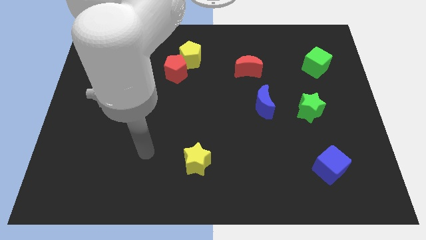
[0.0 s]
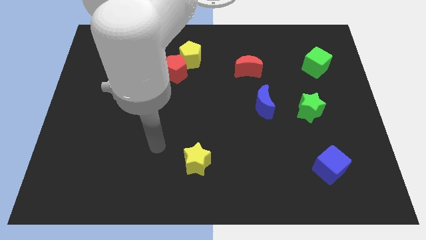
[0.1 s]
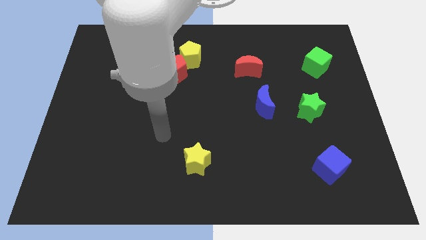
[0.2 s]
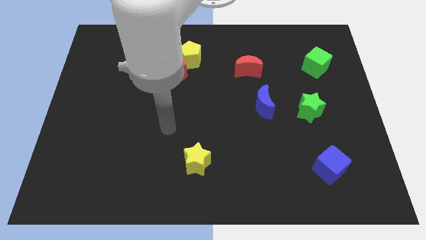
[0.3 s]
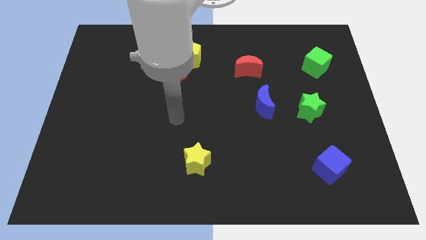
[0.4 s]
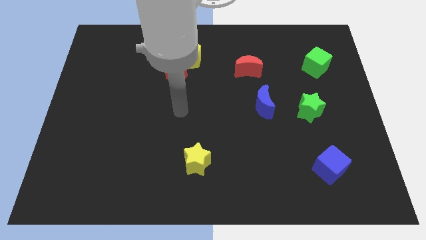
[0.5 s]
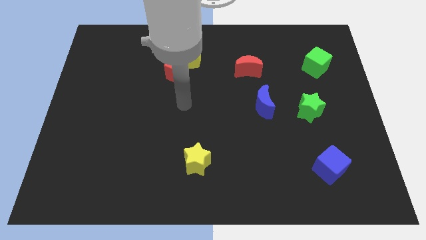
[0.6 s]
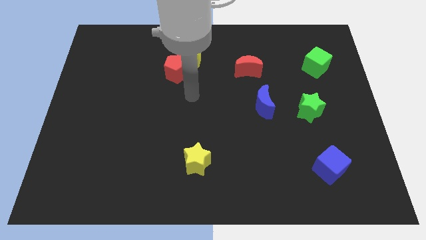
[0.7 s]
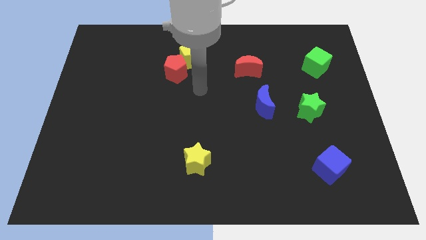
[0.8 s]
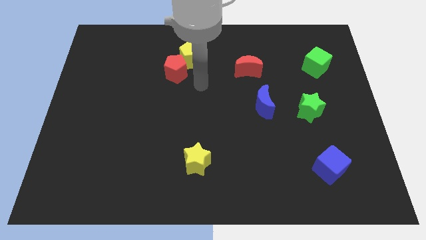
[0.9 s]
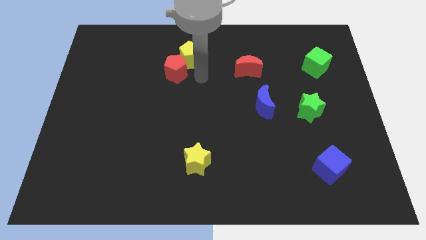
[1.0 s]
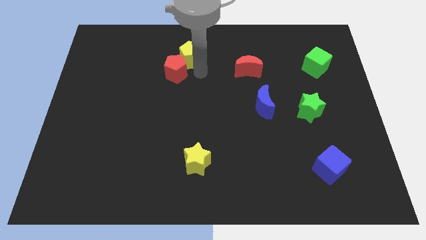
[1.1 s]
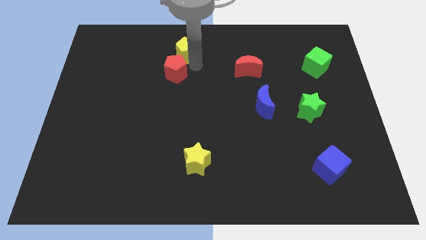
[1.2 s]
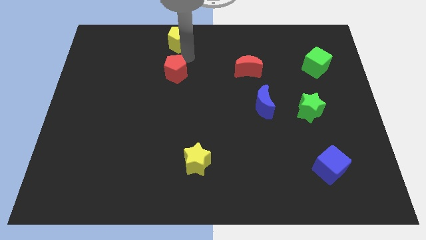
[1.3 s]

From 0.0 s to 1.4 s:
separate the red pentagon from the yellow pentagon

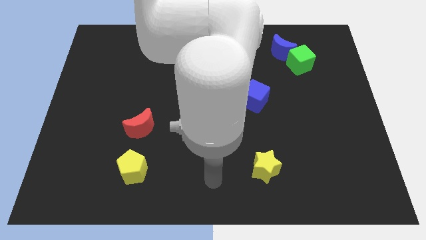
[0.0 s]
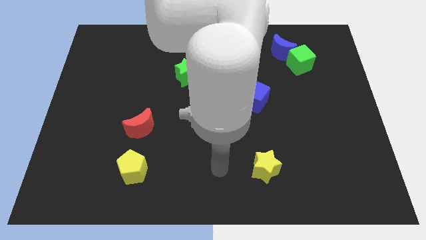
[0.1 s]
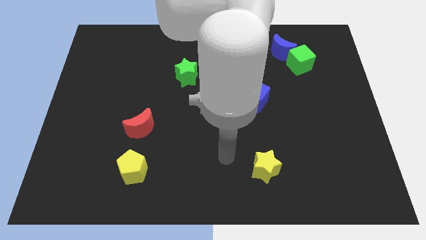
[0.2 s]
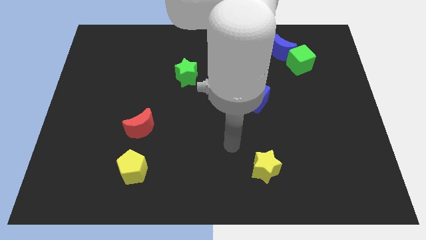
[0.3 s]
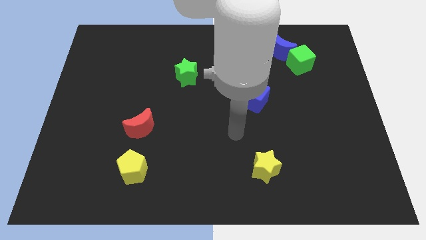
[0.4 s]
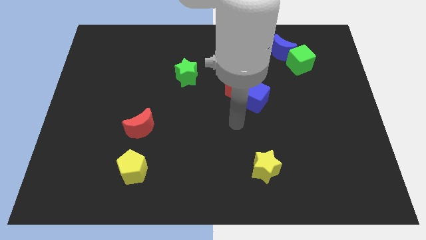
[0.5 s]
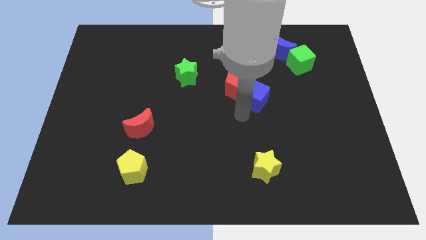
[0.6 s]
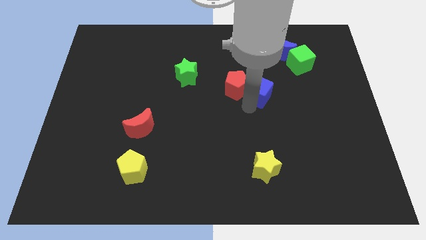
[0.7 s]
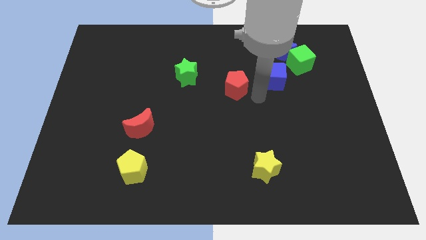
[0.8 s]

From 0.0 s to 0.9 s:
pull the red pentagon apart from the blue cube

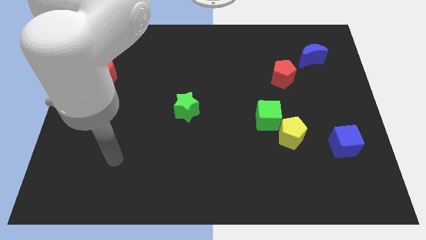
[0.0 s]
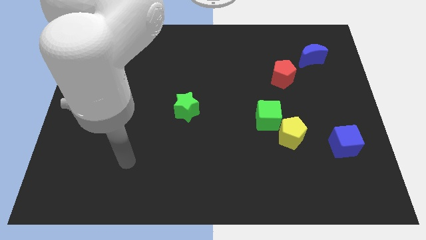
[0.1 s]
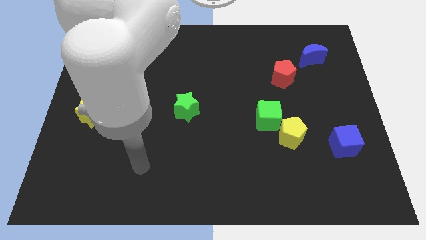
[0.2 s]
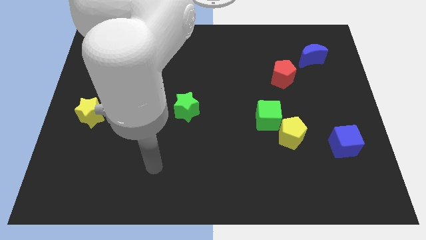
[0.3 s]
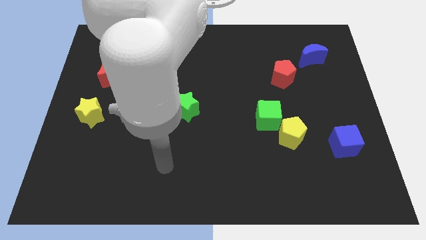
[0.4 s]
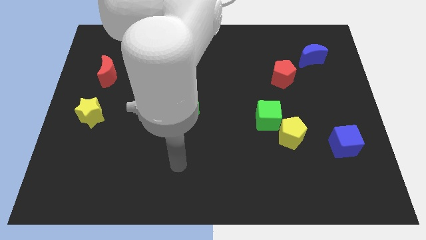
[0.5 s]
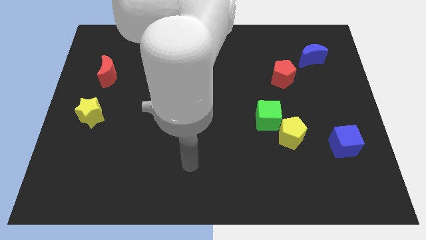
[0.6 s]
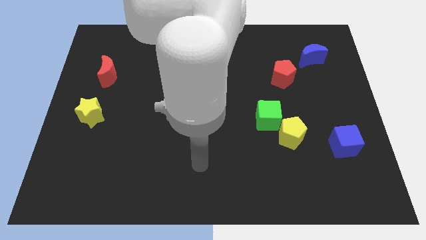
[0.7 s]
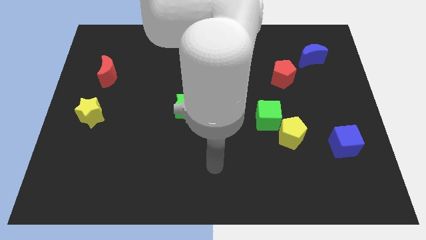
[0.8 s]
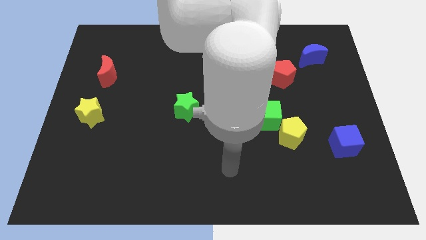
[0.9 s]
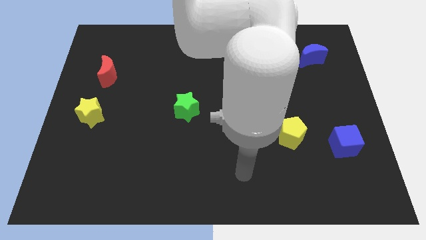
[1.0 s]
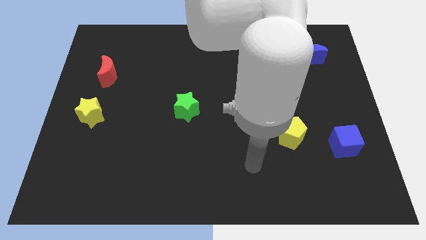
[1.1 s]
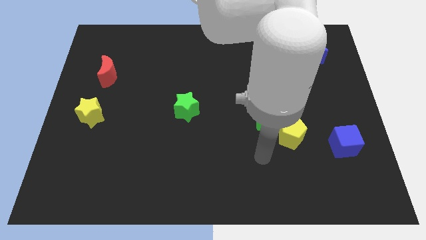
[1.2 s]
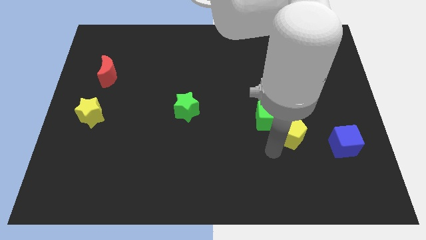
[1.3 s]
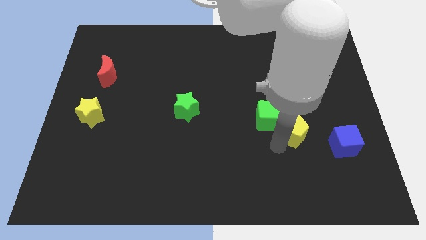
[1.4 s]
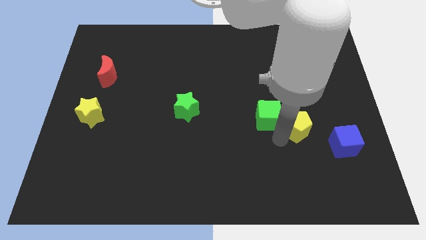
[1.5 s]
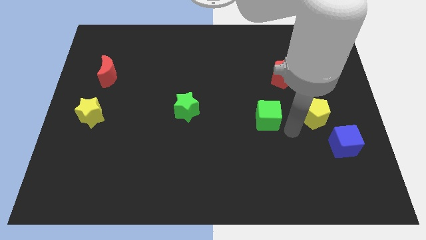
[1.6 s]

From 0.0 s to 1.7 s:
move the green cube away from the yellow pentagon

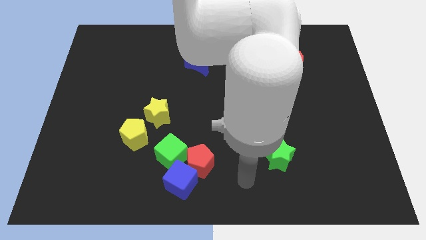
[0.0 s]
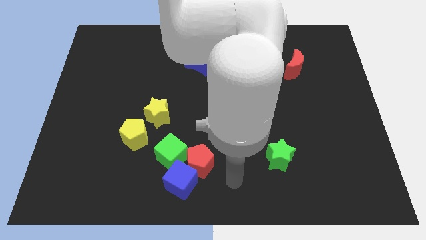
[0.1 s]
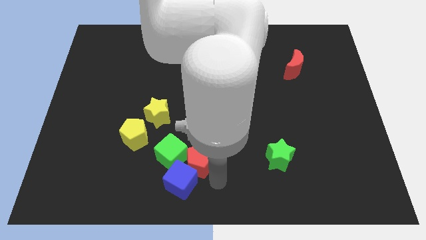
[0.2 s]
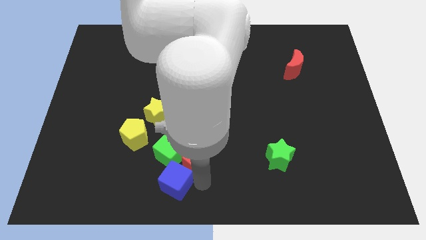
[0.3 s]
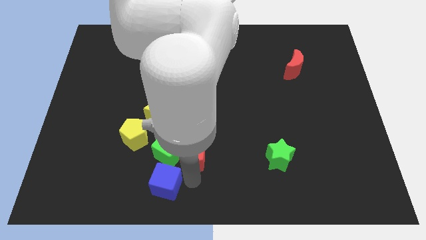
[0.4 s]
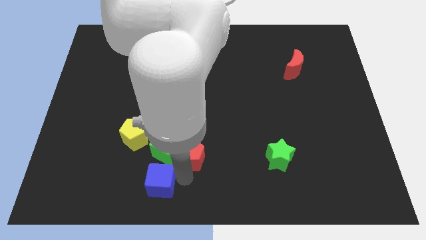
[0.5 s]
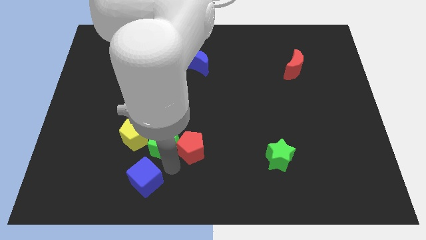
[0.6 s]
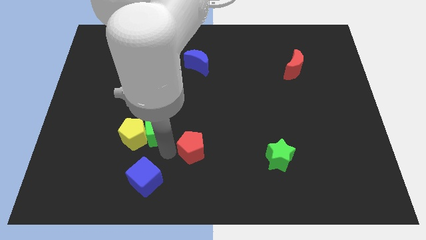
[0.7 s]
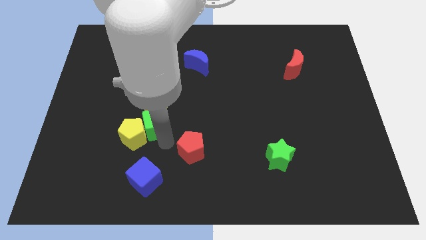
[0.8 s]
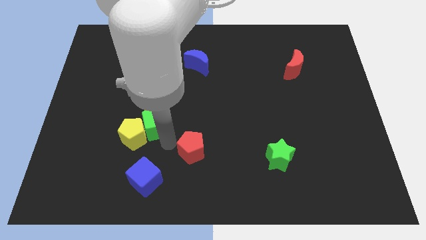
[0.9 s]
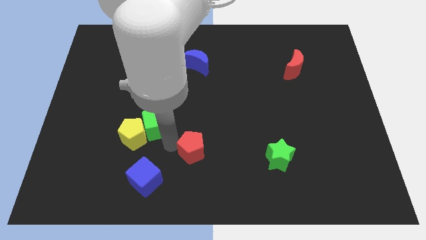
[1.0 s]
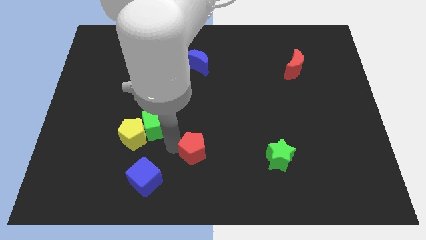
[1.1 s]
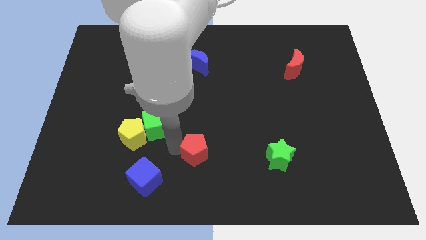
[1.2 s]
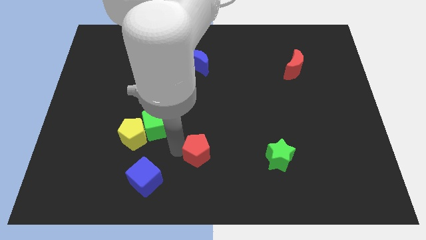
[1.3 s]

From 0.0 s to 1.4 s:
separate the red pentagon from the blue cube and green cube

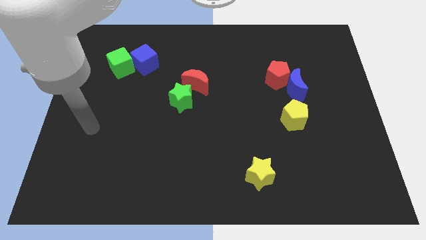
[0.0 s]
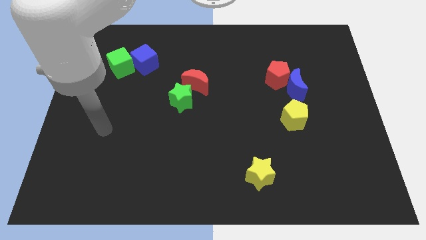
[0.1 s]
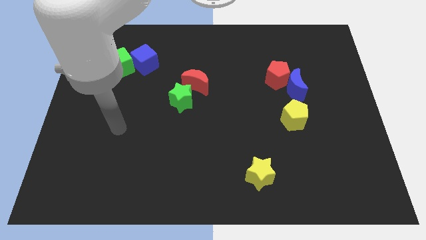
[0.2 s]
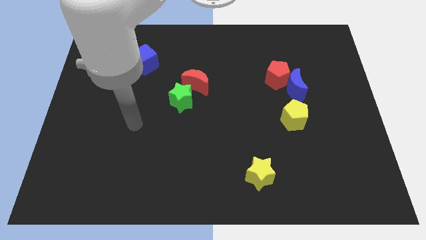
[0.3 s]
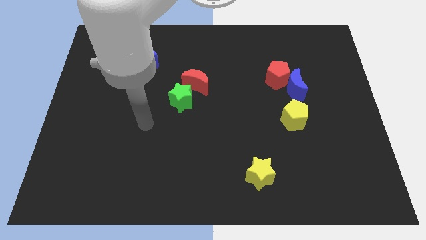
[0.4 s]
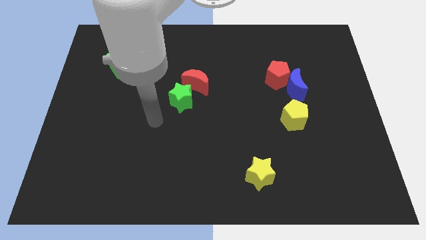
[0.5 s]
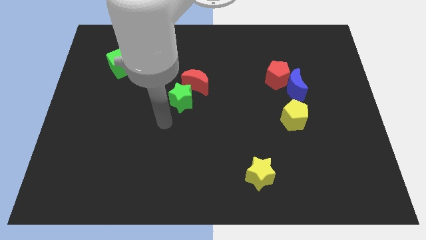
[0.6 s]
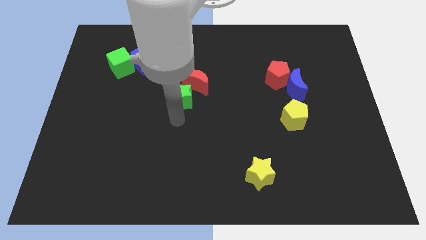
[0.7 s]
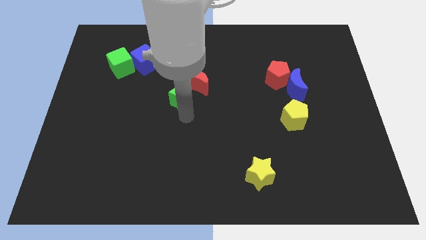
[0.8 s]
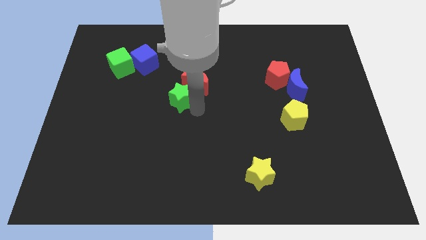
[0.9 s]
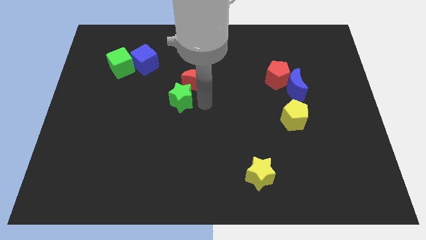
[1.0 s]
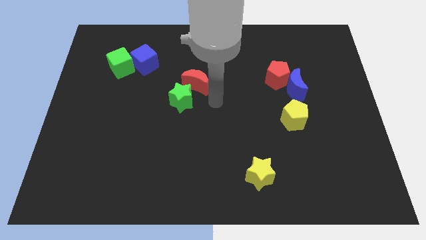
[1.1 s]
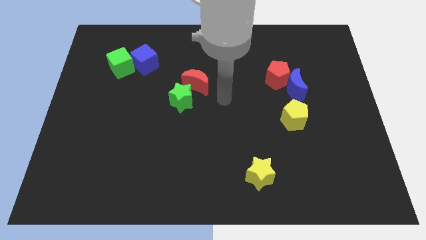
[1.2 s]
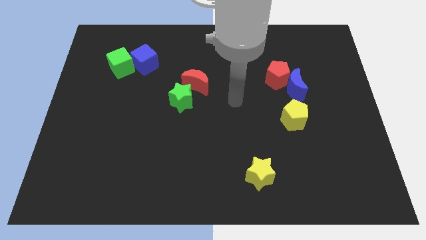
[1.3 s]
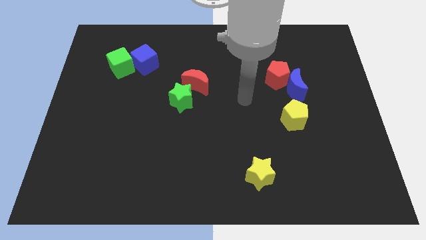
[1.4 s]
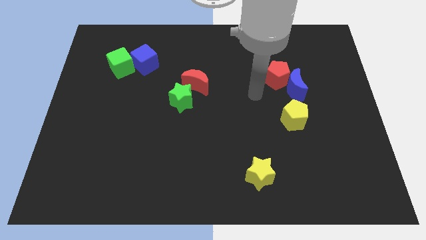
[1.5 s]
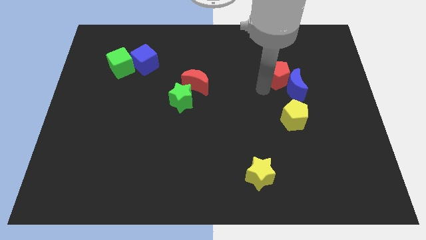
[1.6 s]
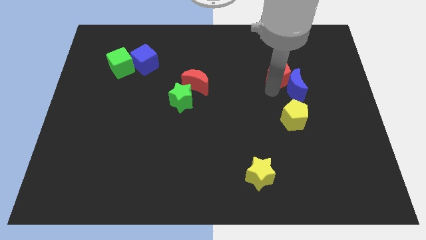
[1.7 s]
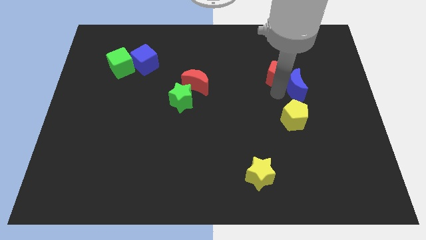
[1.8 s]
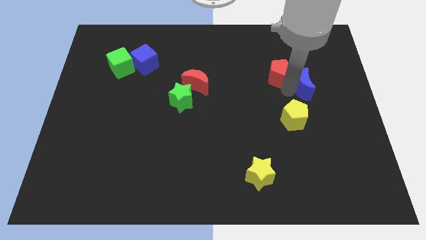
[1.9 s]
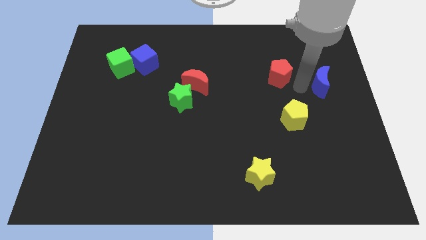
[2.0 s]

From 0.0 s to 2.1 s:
pull the red pentagon apart from the blue moon

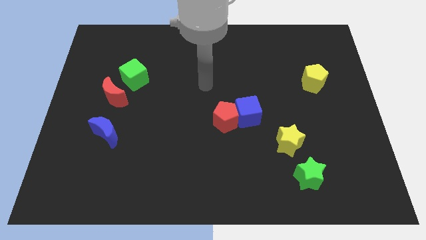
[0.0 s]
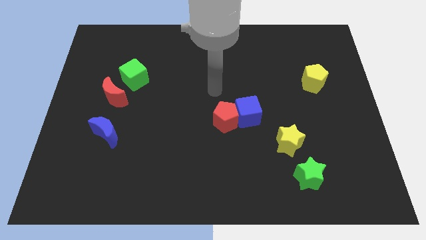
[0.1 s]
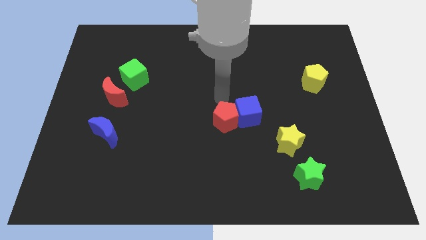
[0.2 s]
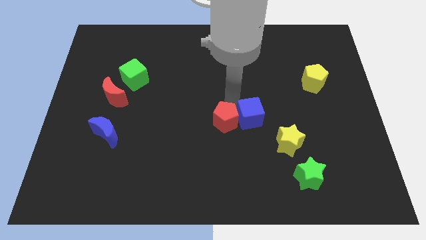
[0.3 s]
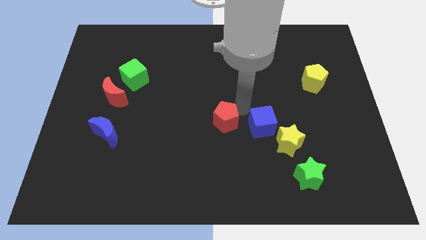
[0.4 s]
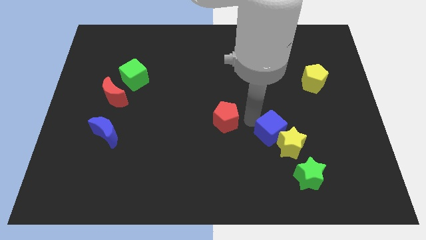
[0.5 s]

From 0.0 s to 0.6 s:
separate the red pentagon from the blue cube

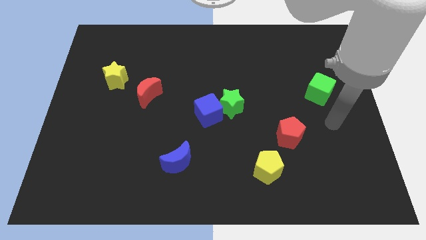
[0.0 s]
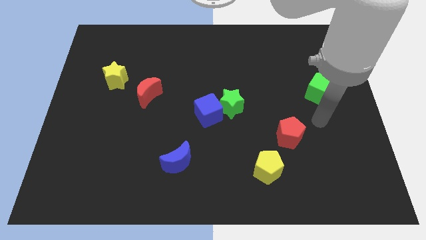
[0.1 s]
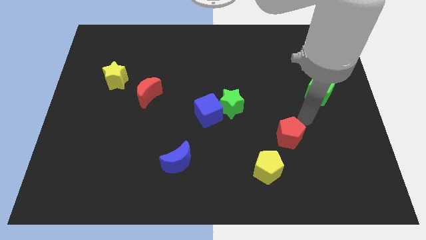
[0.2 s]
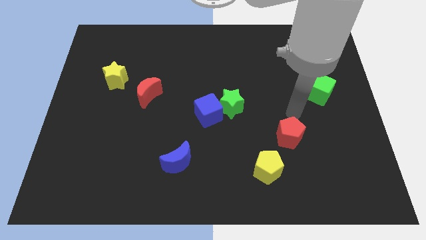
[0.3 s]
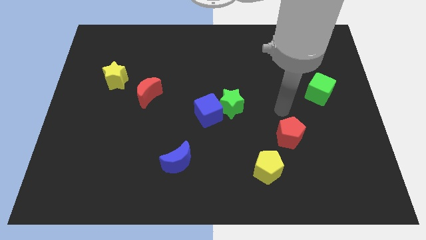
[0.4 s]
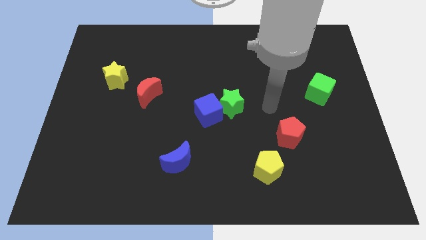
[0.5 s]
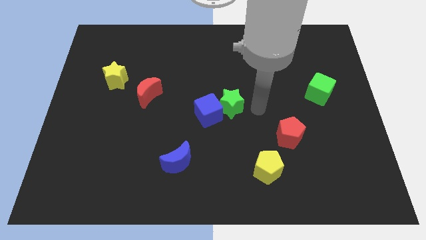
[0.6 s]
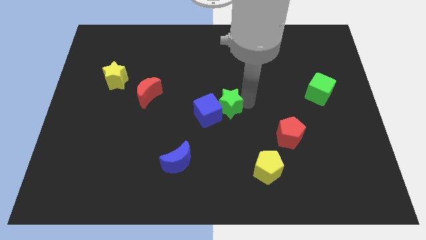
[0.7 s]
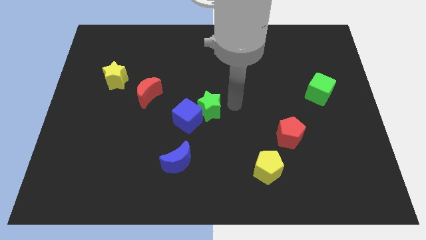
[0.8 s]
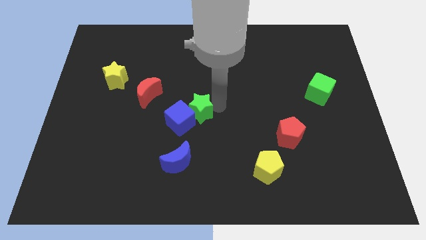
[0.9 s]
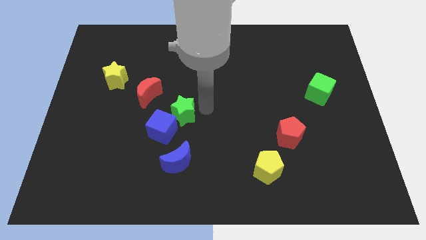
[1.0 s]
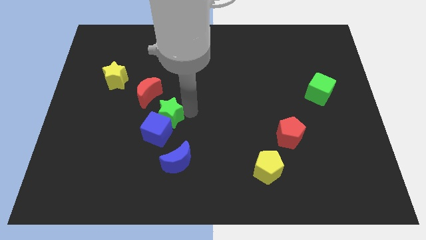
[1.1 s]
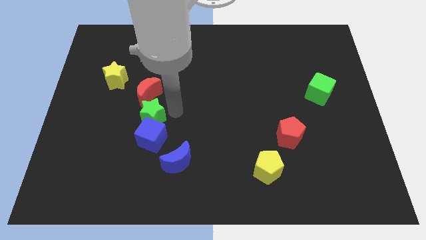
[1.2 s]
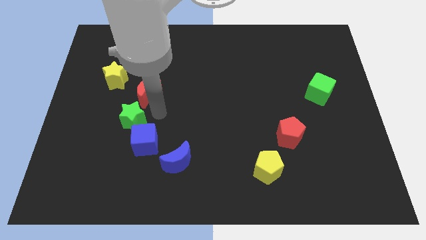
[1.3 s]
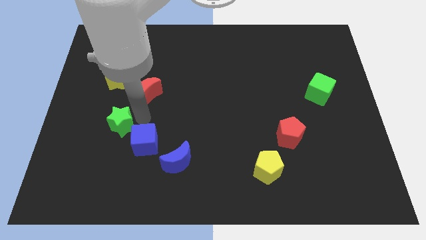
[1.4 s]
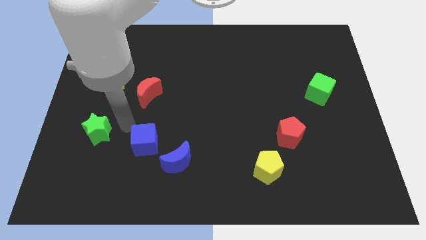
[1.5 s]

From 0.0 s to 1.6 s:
separate the blue cube from the green star
